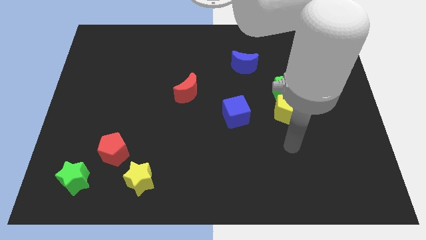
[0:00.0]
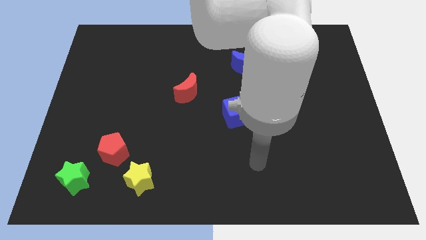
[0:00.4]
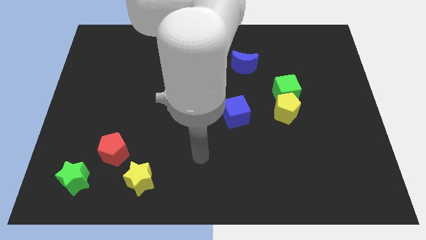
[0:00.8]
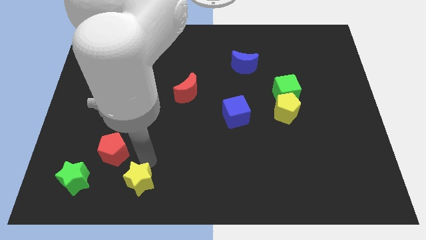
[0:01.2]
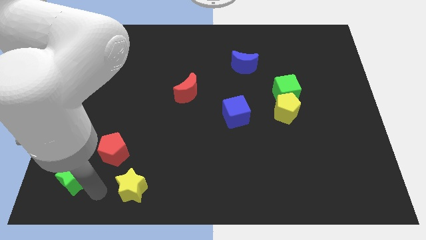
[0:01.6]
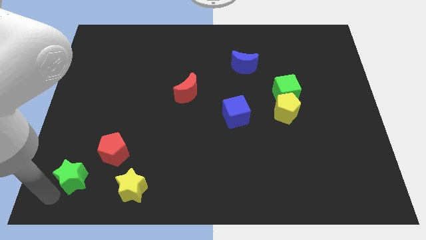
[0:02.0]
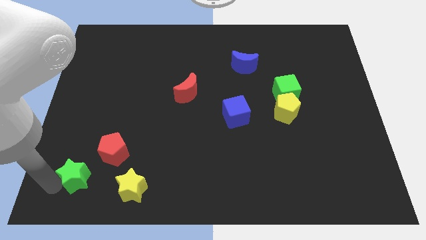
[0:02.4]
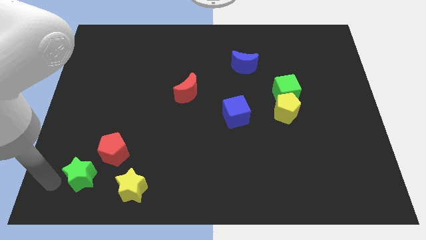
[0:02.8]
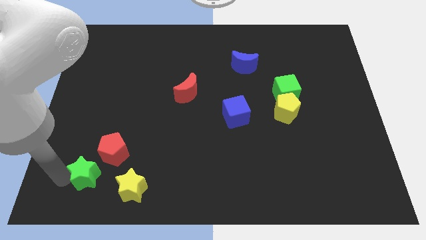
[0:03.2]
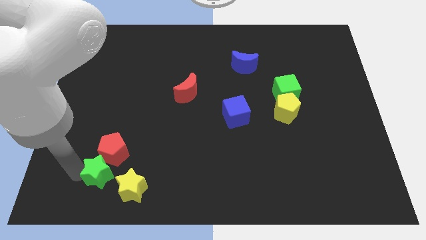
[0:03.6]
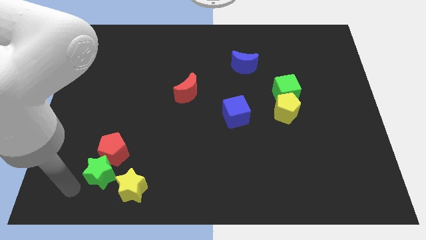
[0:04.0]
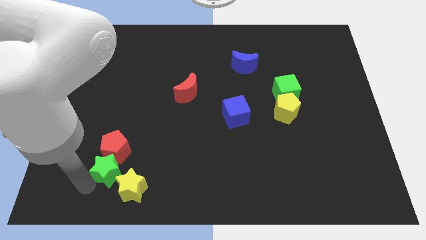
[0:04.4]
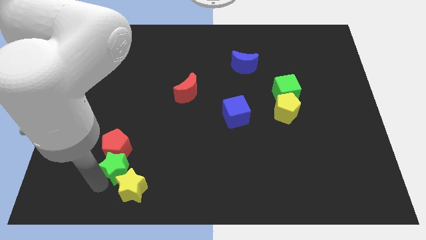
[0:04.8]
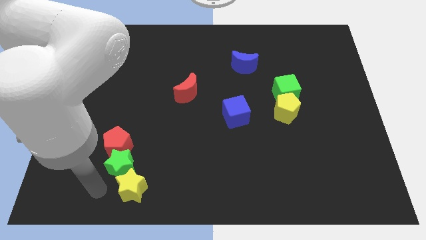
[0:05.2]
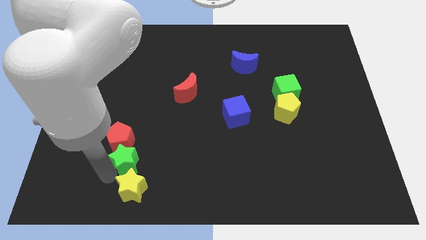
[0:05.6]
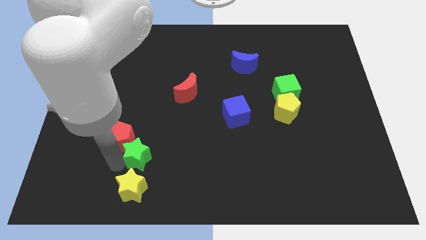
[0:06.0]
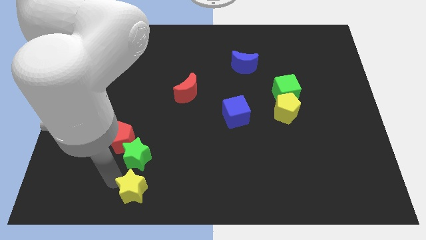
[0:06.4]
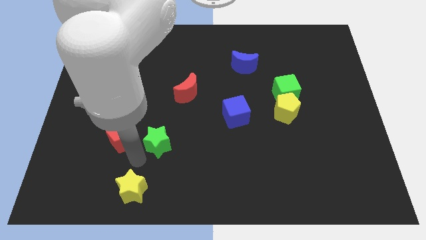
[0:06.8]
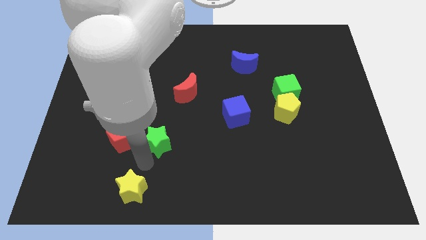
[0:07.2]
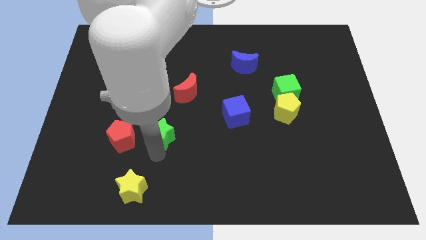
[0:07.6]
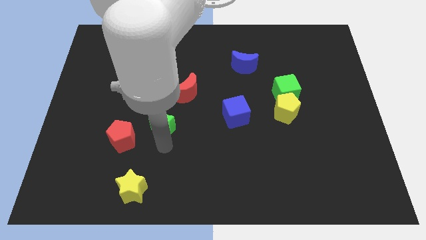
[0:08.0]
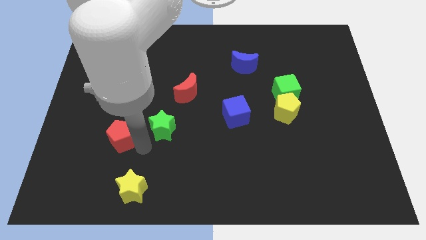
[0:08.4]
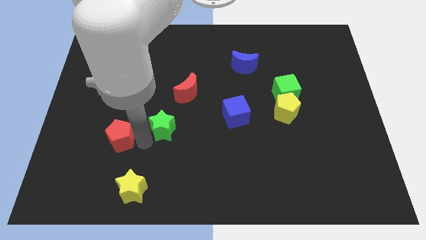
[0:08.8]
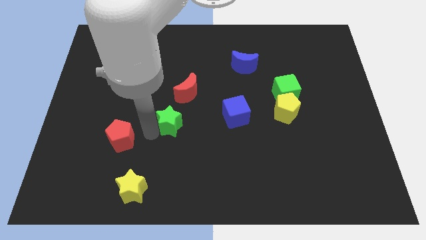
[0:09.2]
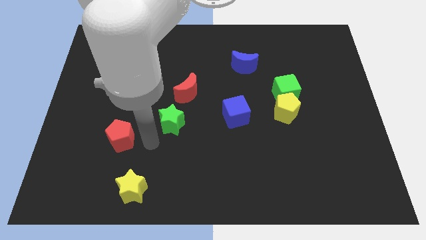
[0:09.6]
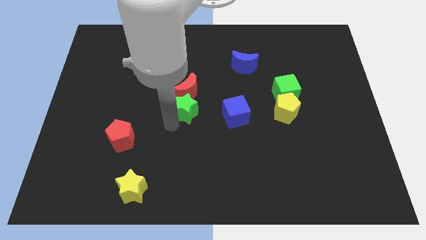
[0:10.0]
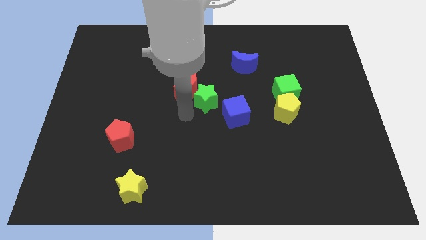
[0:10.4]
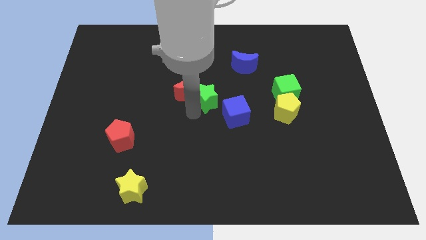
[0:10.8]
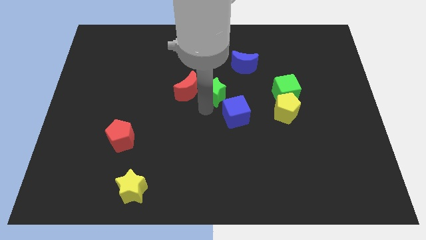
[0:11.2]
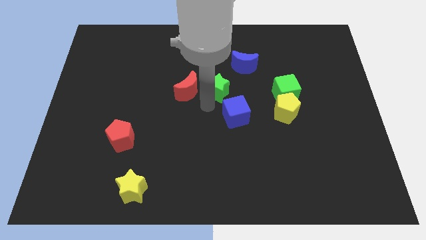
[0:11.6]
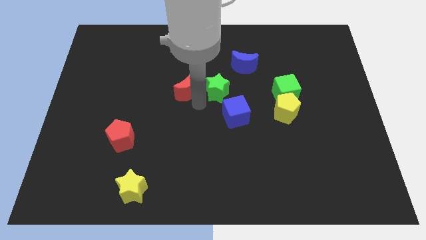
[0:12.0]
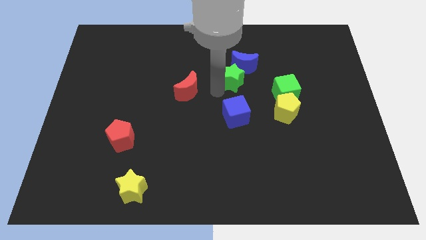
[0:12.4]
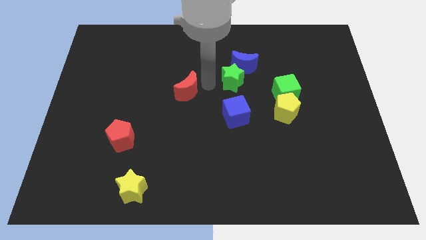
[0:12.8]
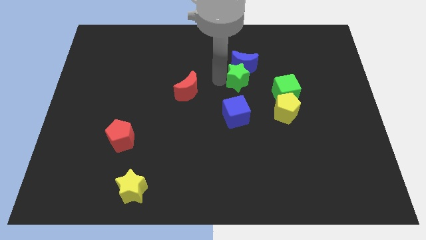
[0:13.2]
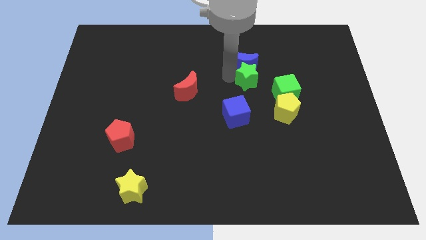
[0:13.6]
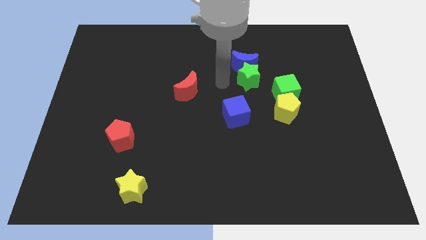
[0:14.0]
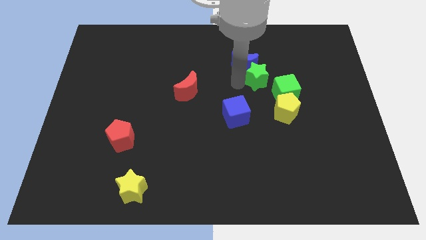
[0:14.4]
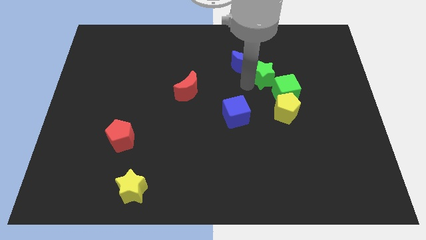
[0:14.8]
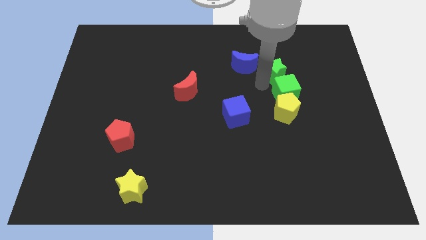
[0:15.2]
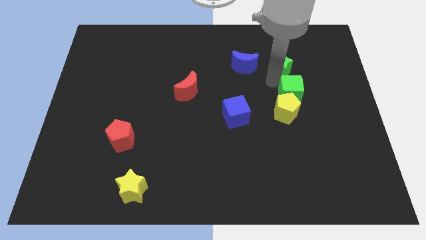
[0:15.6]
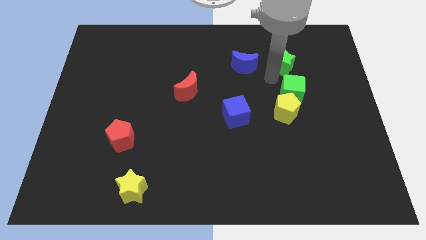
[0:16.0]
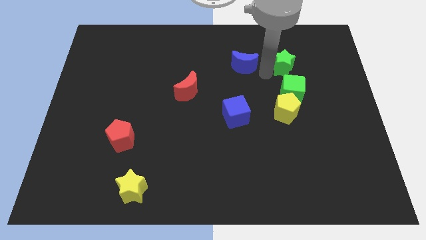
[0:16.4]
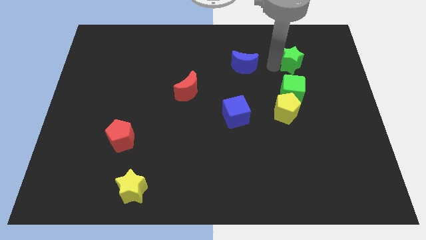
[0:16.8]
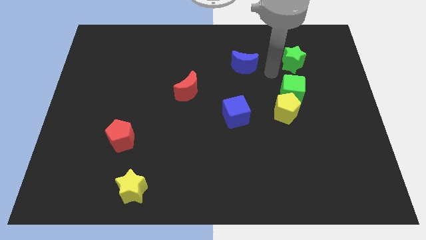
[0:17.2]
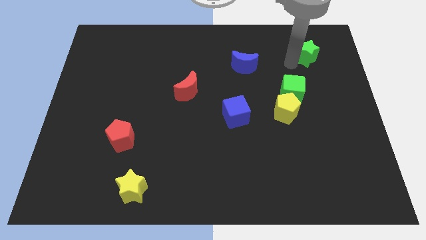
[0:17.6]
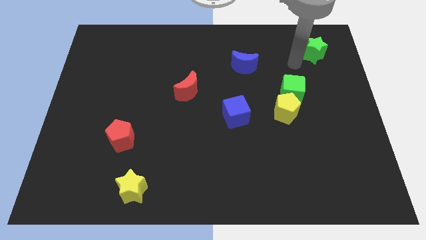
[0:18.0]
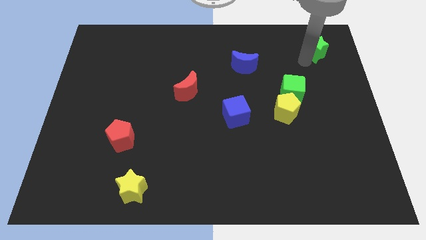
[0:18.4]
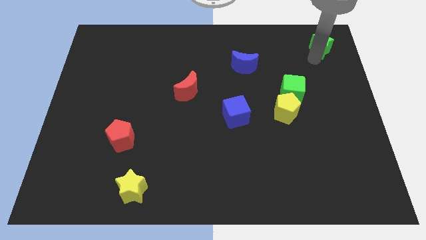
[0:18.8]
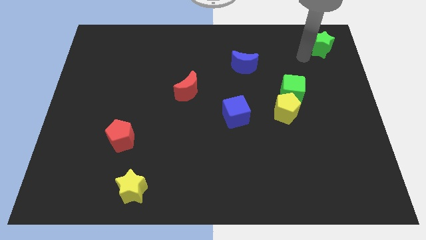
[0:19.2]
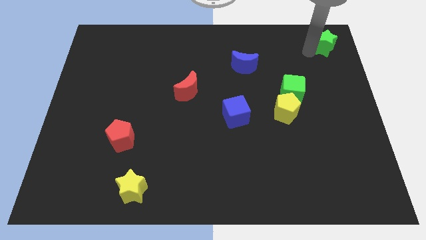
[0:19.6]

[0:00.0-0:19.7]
push the green star to the top right of the board
